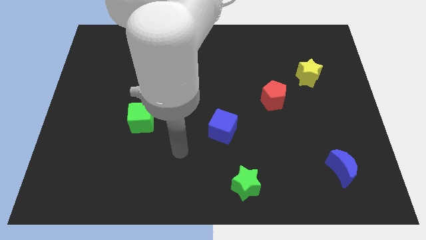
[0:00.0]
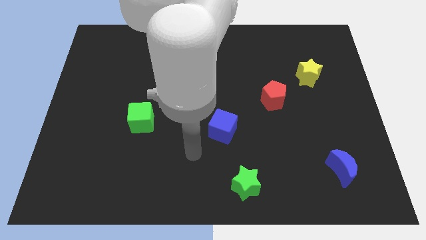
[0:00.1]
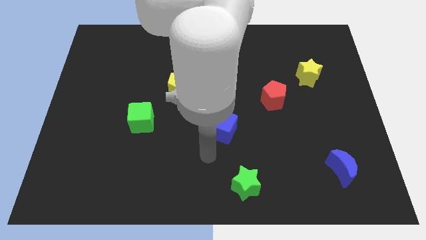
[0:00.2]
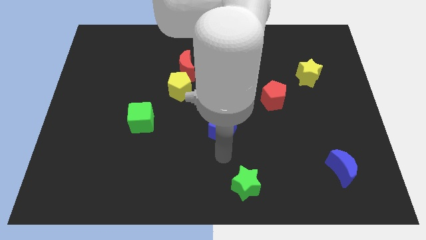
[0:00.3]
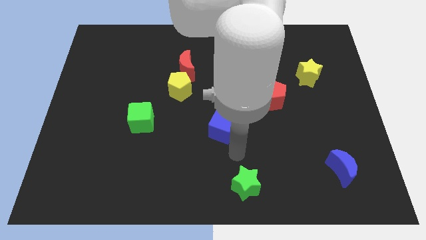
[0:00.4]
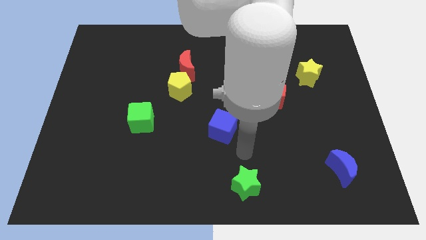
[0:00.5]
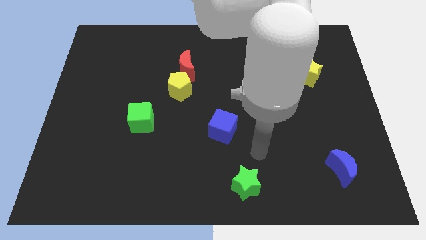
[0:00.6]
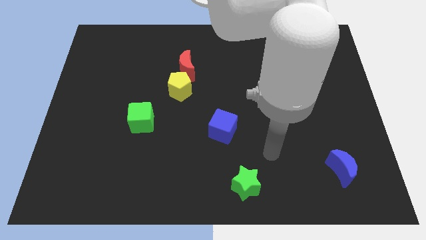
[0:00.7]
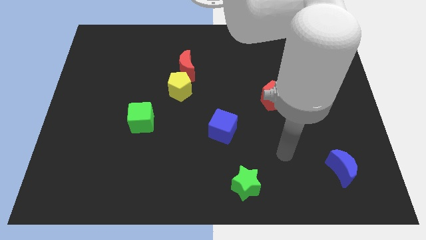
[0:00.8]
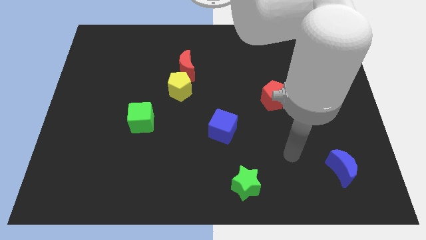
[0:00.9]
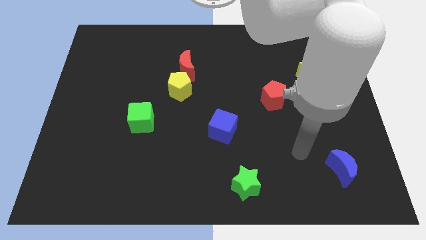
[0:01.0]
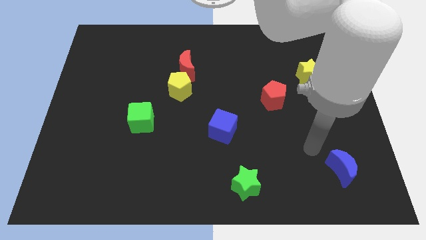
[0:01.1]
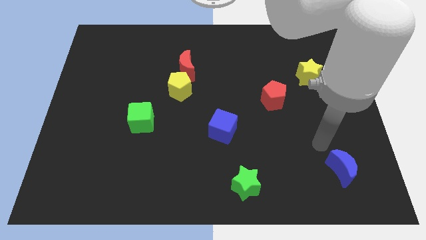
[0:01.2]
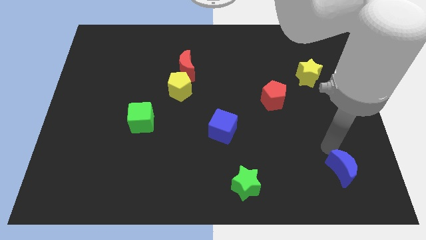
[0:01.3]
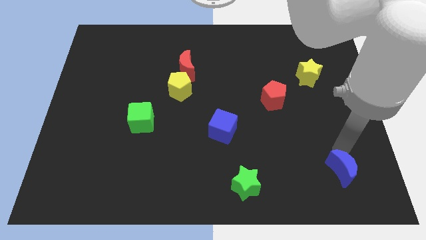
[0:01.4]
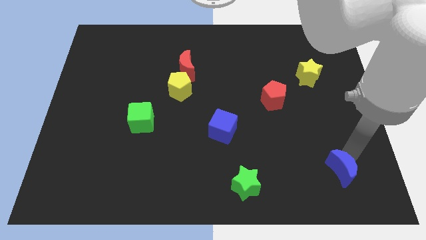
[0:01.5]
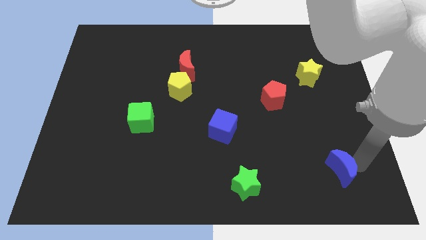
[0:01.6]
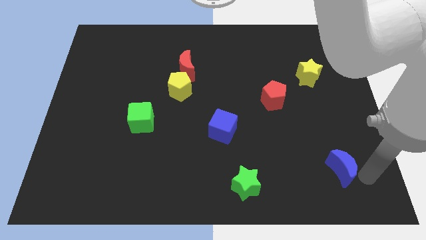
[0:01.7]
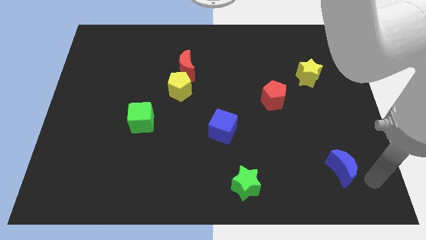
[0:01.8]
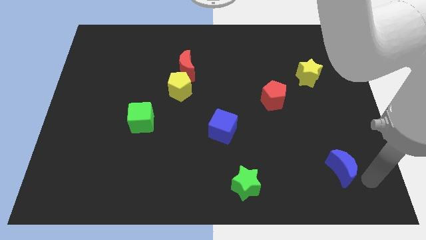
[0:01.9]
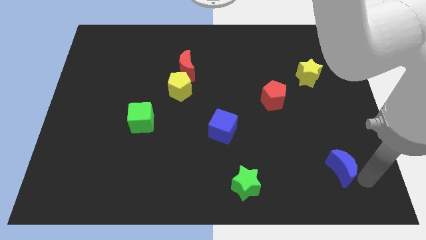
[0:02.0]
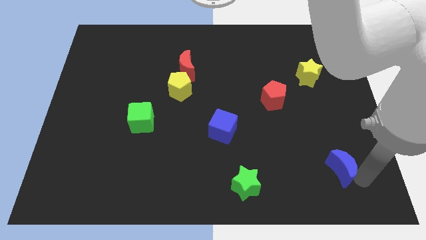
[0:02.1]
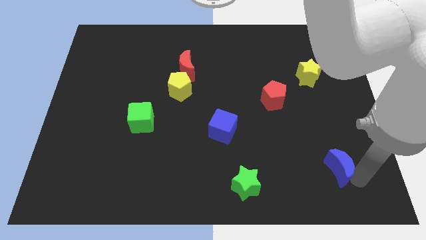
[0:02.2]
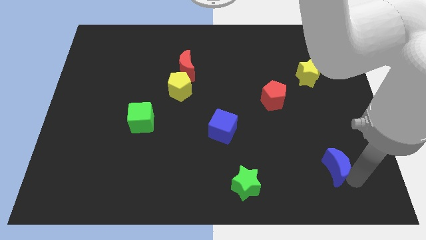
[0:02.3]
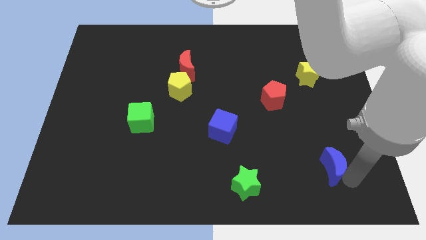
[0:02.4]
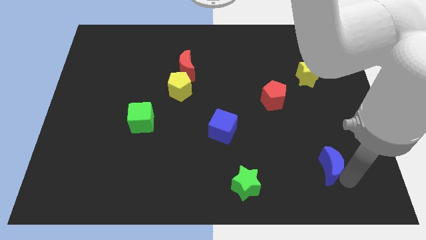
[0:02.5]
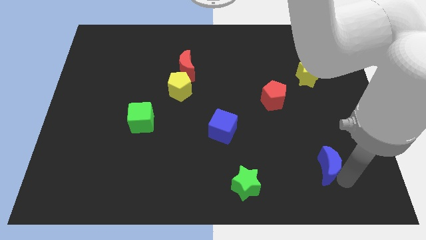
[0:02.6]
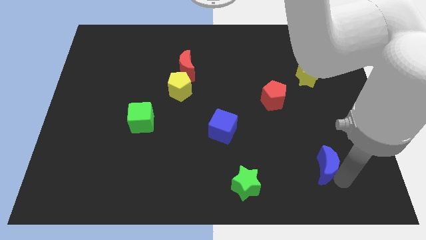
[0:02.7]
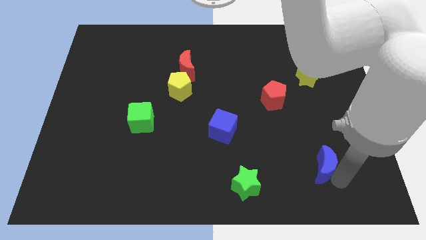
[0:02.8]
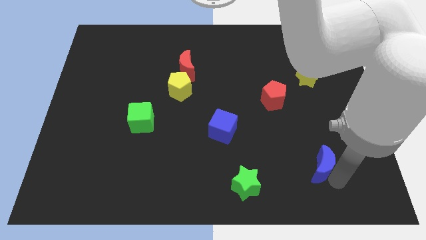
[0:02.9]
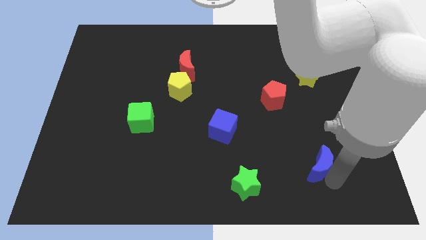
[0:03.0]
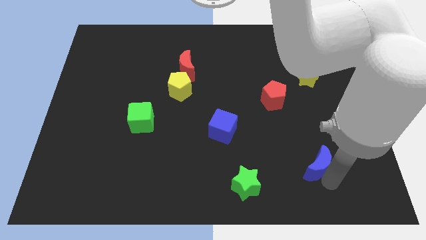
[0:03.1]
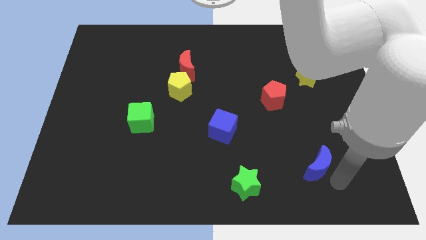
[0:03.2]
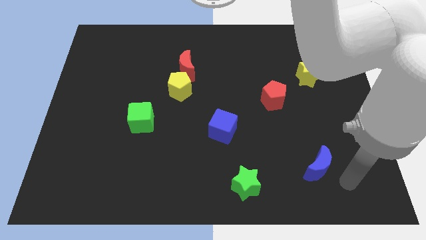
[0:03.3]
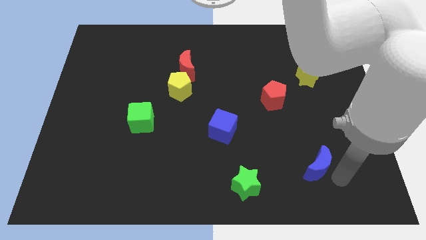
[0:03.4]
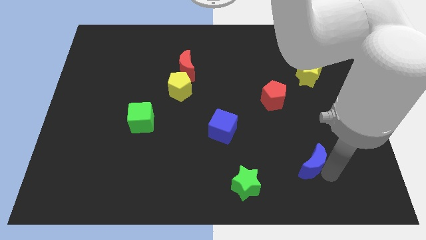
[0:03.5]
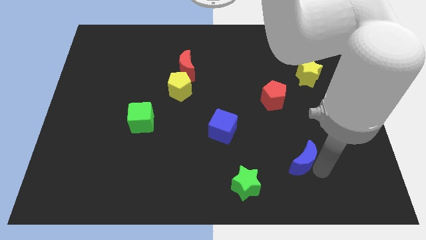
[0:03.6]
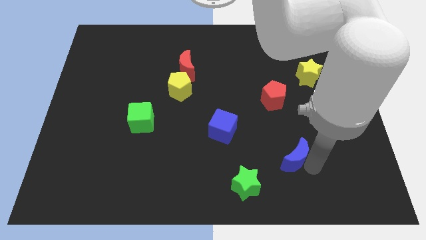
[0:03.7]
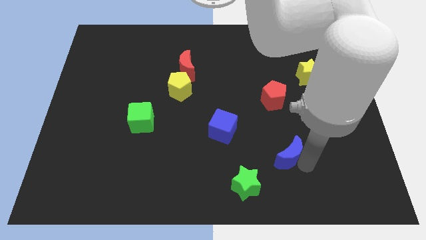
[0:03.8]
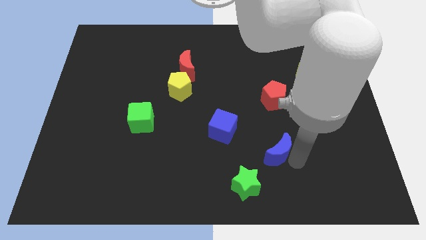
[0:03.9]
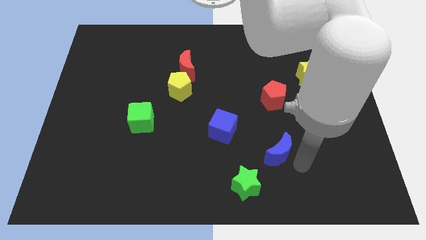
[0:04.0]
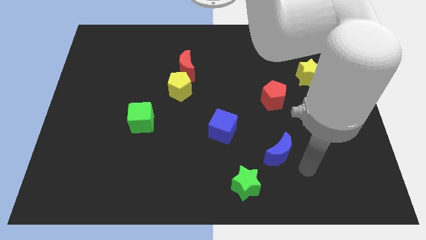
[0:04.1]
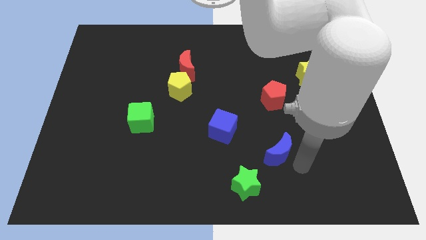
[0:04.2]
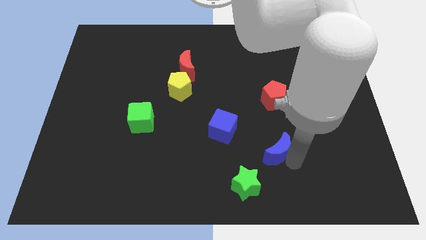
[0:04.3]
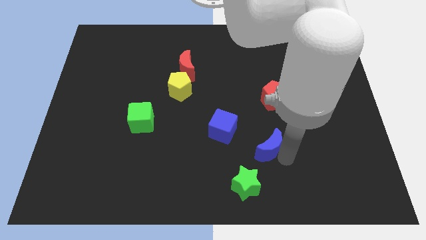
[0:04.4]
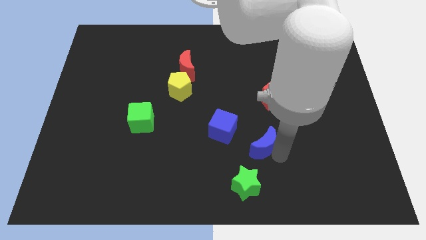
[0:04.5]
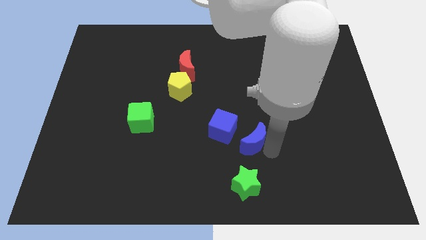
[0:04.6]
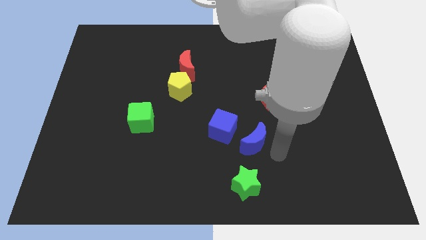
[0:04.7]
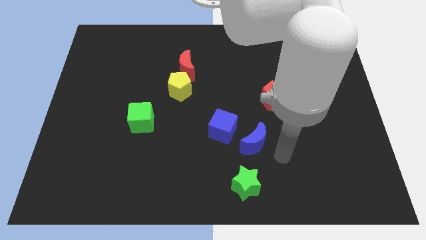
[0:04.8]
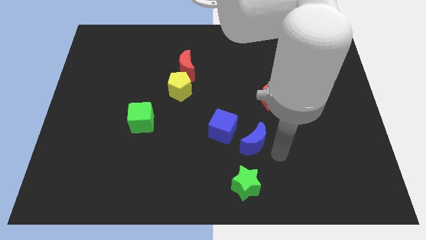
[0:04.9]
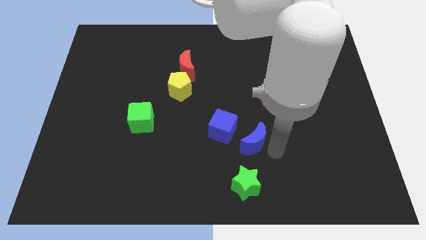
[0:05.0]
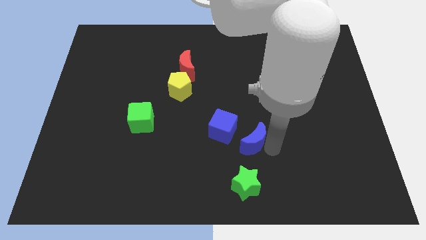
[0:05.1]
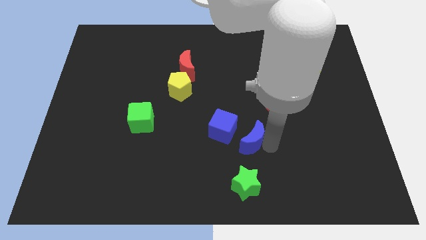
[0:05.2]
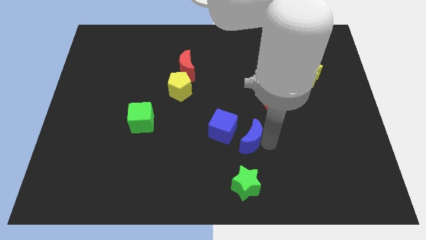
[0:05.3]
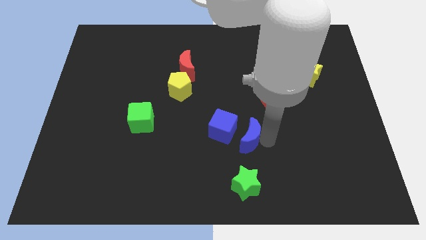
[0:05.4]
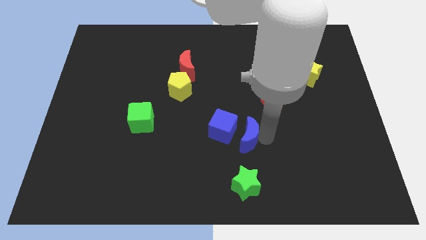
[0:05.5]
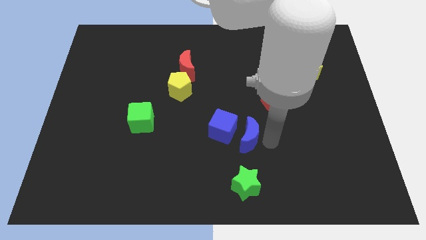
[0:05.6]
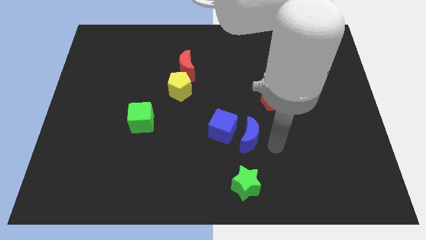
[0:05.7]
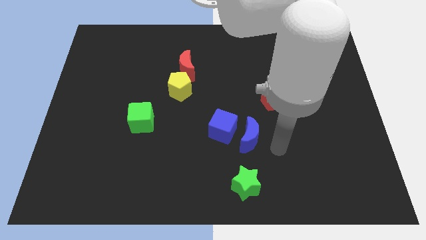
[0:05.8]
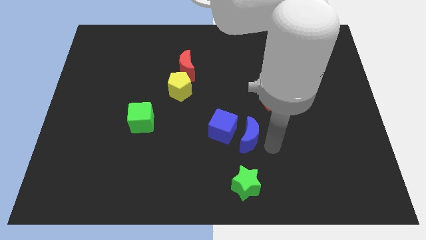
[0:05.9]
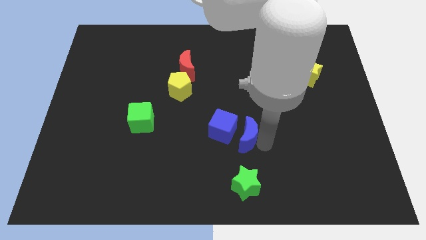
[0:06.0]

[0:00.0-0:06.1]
move the blue moon towards the blue cube

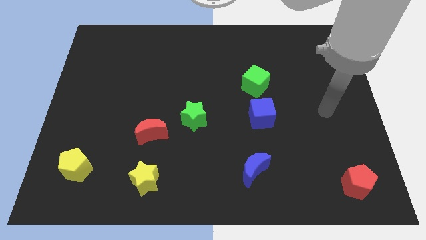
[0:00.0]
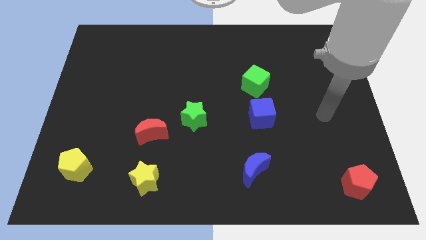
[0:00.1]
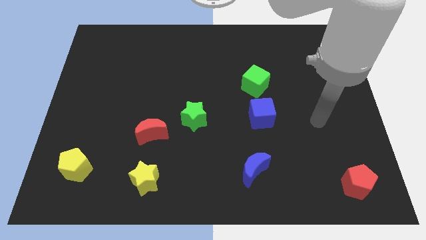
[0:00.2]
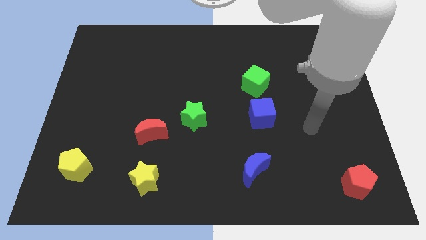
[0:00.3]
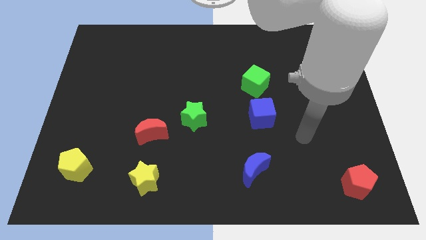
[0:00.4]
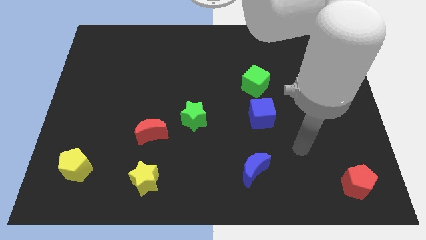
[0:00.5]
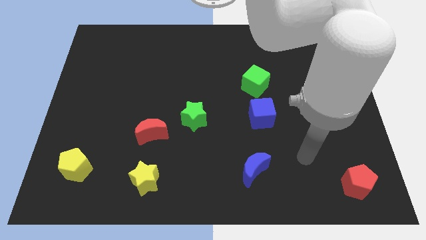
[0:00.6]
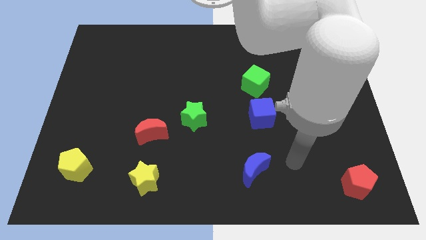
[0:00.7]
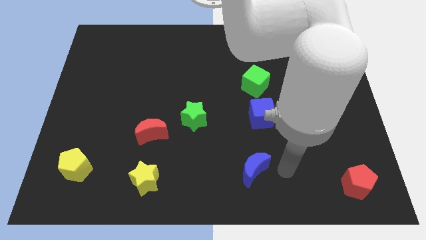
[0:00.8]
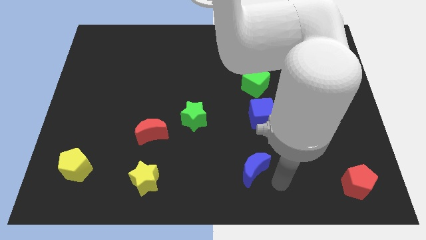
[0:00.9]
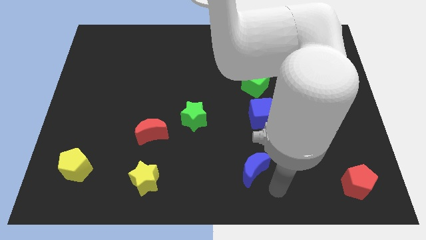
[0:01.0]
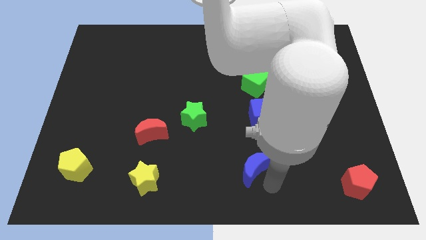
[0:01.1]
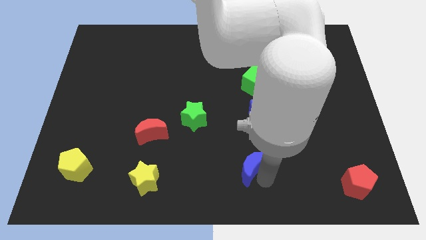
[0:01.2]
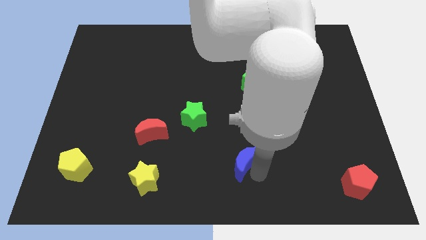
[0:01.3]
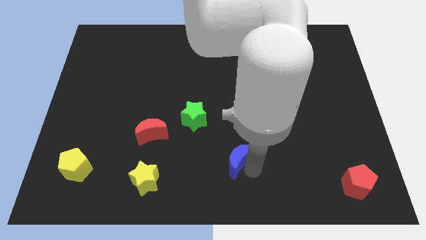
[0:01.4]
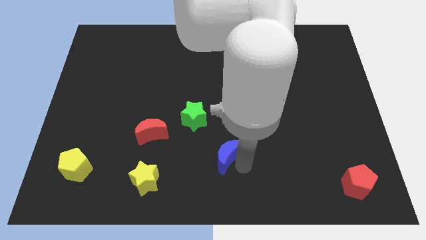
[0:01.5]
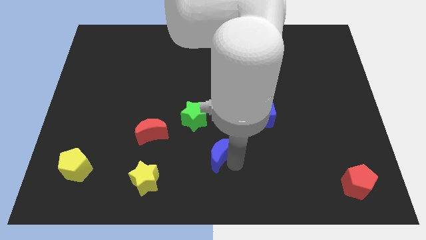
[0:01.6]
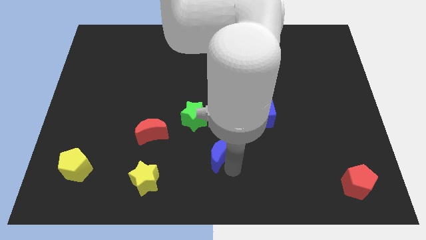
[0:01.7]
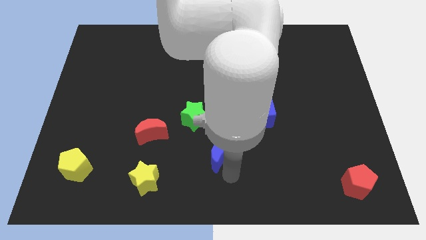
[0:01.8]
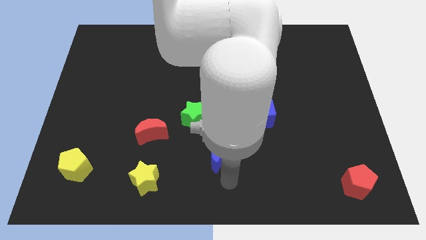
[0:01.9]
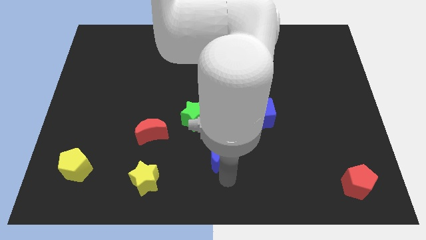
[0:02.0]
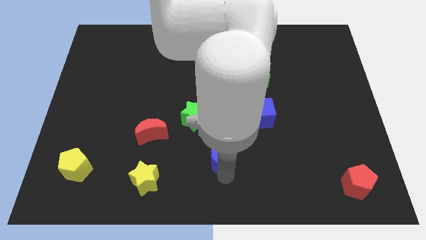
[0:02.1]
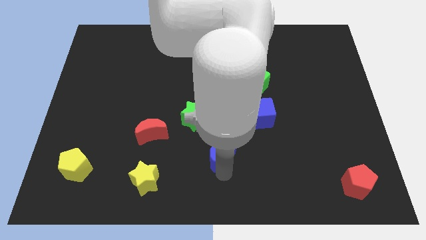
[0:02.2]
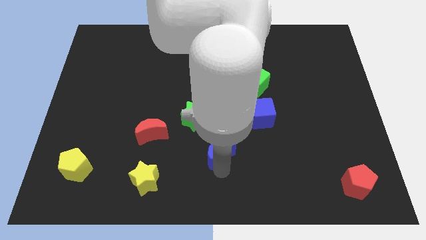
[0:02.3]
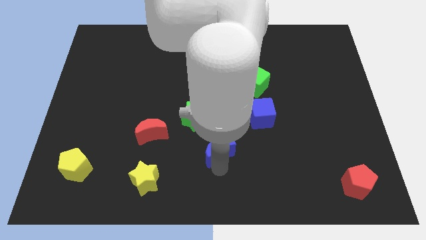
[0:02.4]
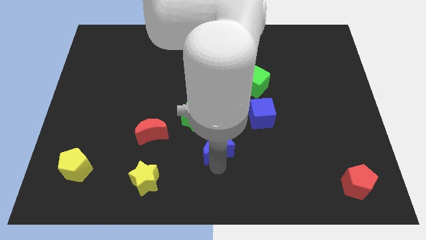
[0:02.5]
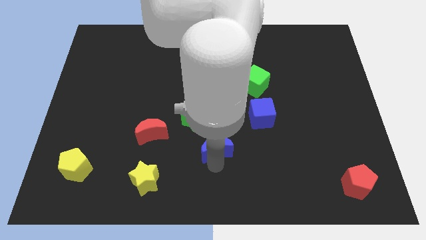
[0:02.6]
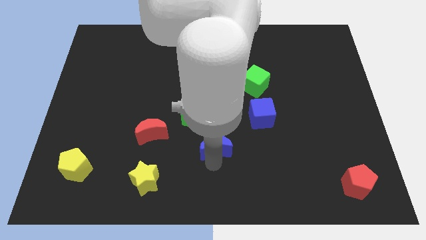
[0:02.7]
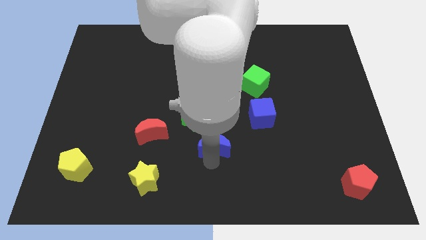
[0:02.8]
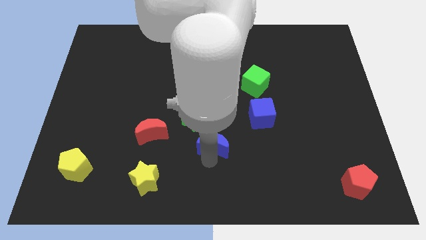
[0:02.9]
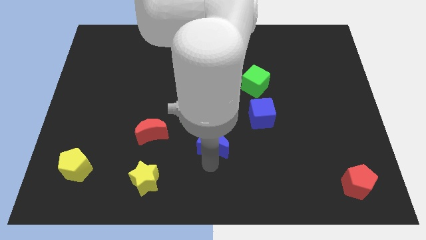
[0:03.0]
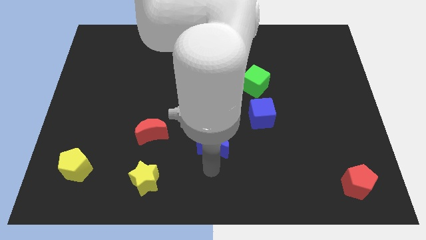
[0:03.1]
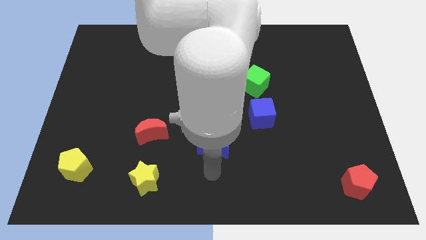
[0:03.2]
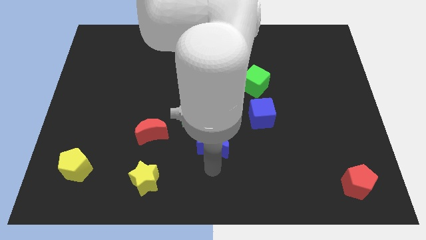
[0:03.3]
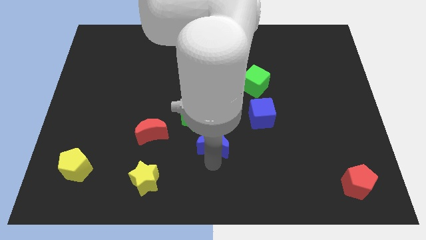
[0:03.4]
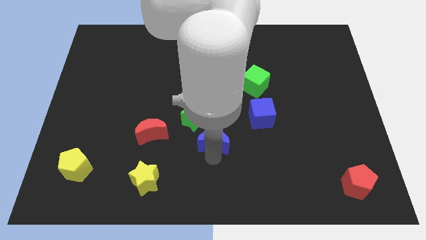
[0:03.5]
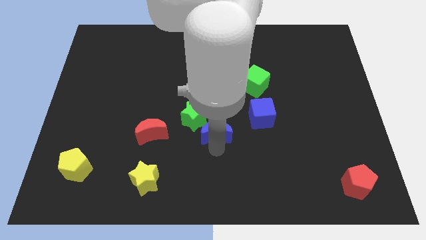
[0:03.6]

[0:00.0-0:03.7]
move the blue moon next to the green star
